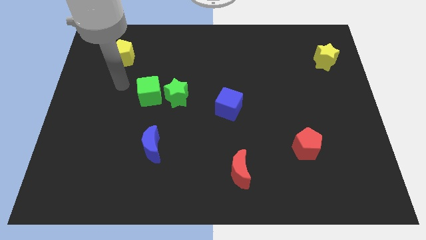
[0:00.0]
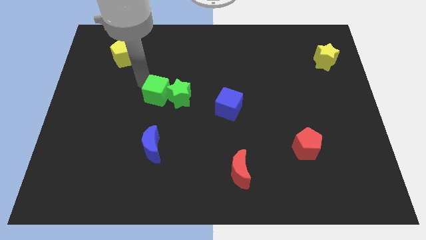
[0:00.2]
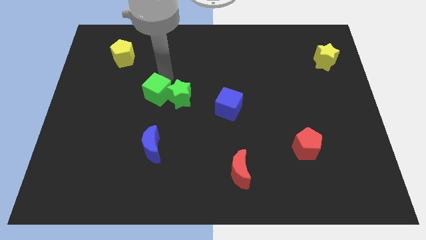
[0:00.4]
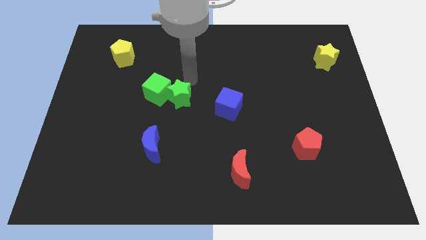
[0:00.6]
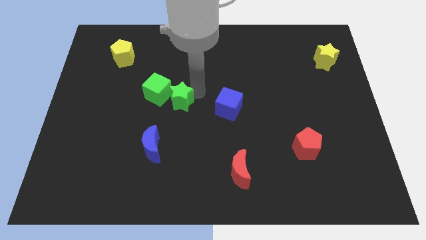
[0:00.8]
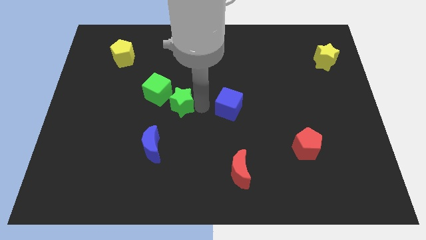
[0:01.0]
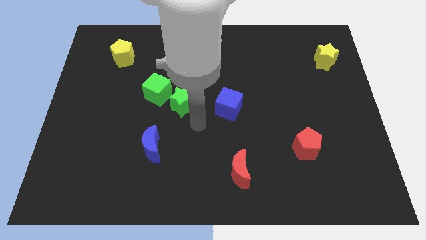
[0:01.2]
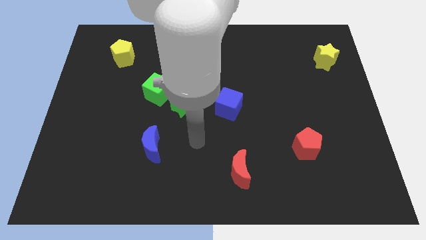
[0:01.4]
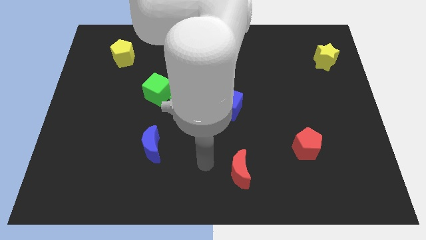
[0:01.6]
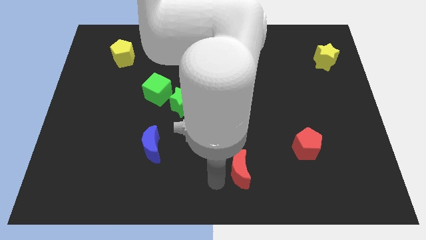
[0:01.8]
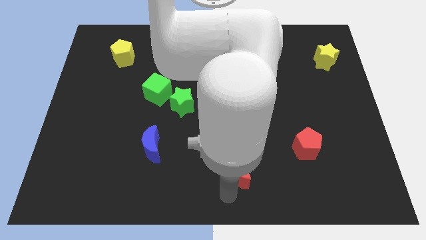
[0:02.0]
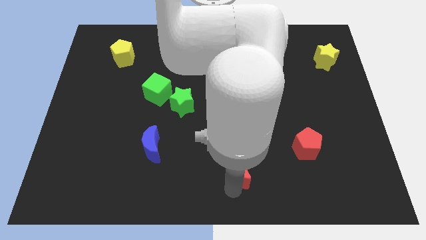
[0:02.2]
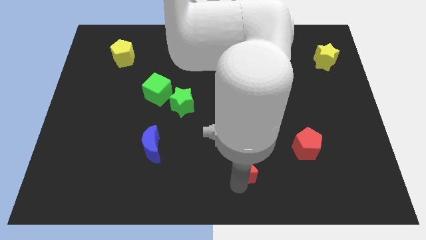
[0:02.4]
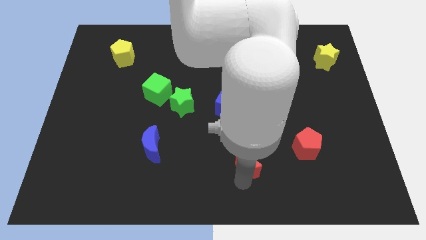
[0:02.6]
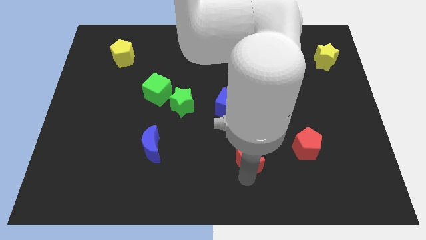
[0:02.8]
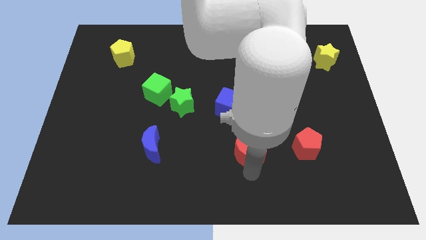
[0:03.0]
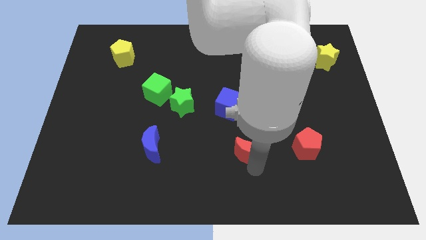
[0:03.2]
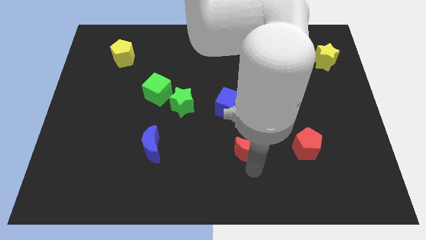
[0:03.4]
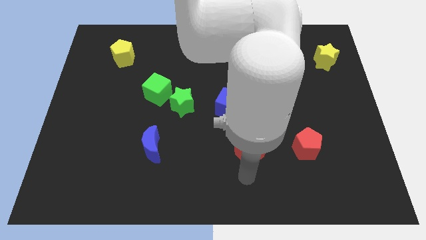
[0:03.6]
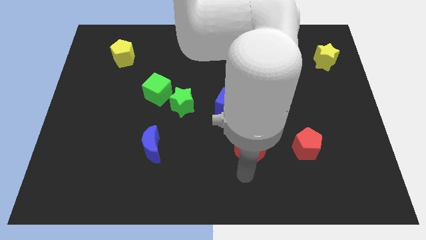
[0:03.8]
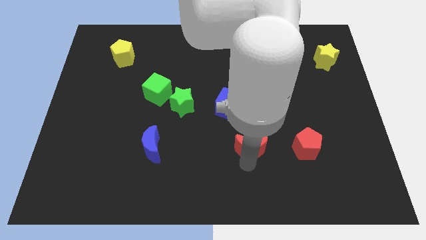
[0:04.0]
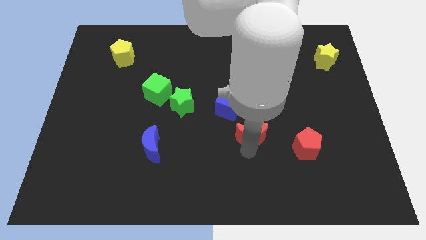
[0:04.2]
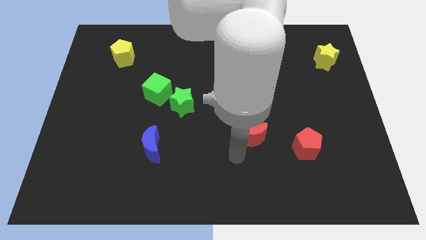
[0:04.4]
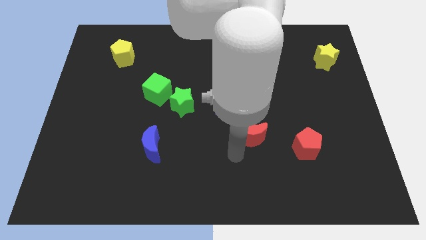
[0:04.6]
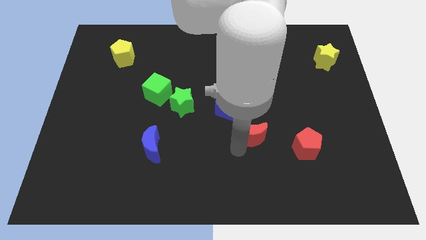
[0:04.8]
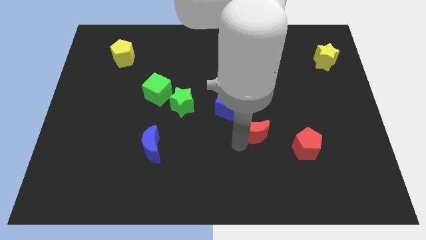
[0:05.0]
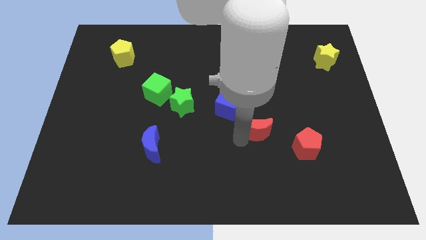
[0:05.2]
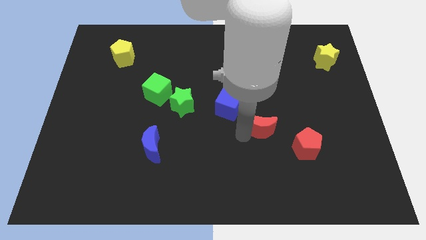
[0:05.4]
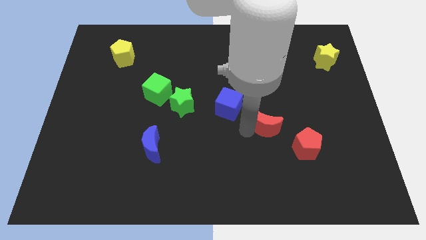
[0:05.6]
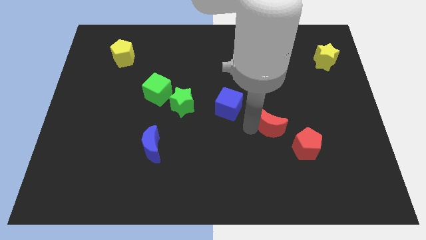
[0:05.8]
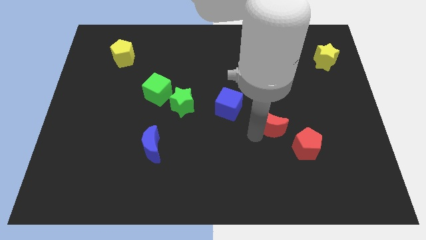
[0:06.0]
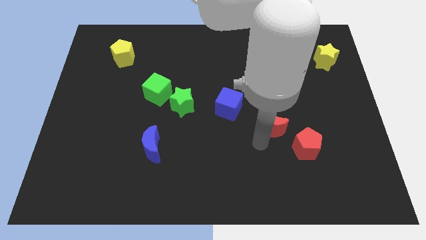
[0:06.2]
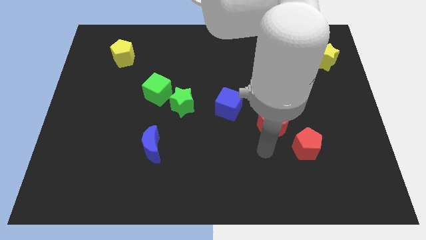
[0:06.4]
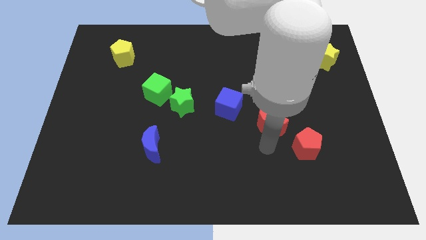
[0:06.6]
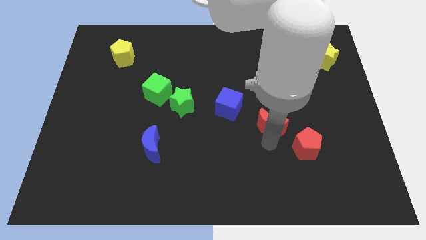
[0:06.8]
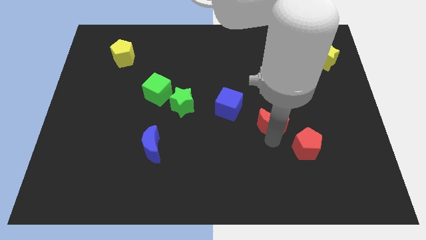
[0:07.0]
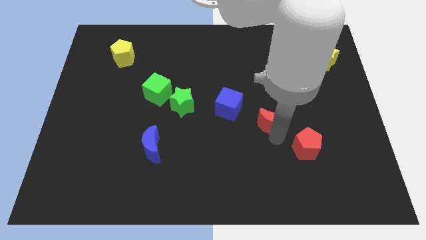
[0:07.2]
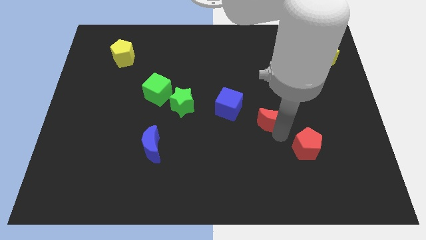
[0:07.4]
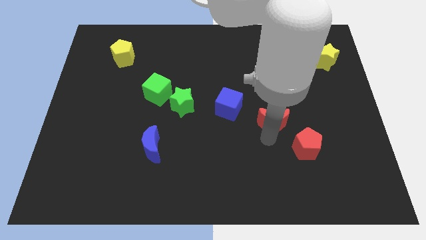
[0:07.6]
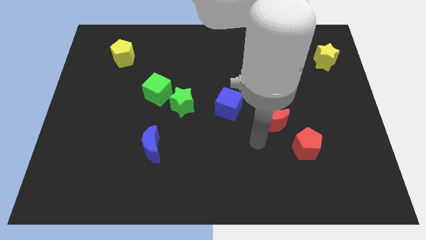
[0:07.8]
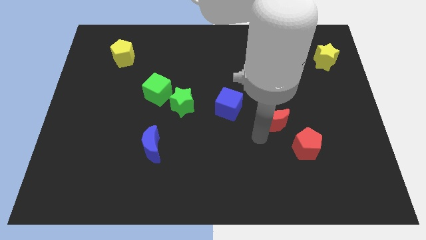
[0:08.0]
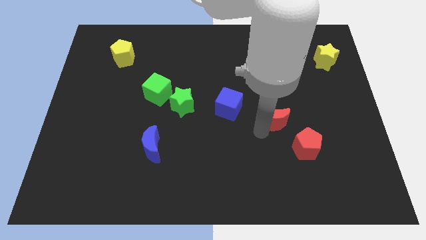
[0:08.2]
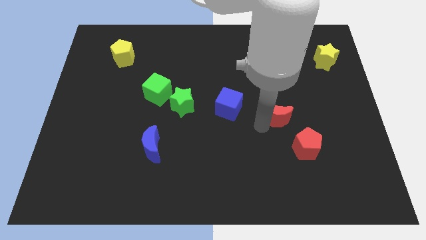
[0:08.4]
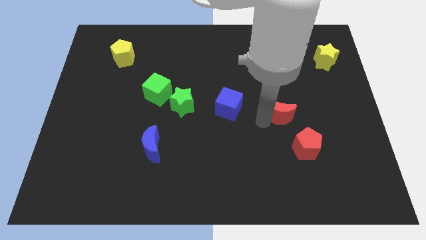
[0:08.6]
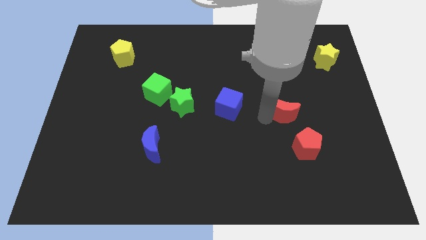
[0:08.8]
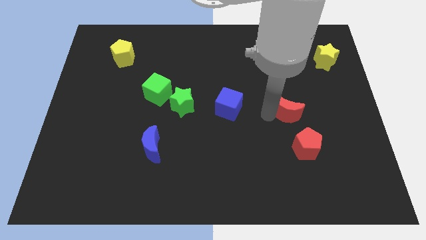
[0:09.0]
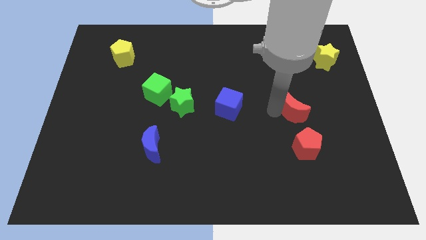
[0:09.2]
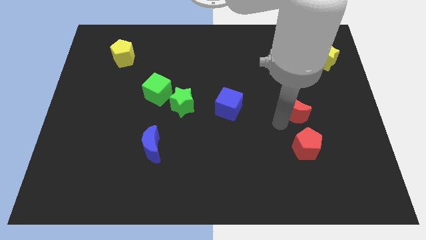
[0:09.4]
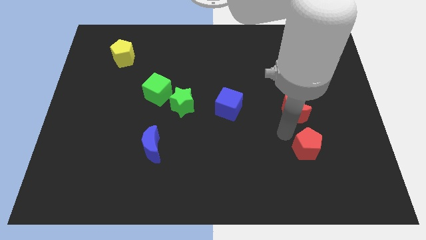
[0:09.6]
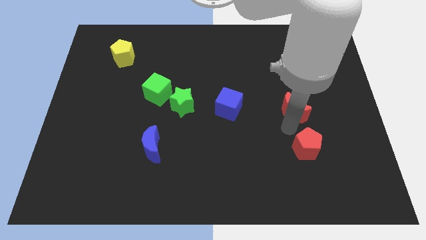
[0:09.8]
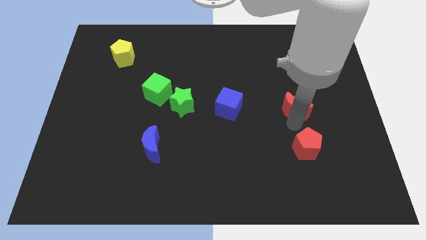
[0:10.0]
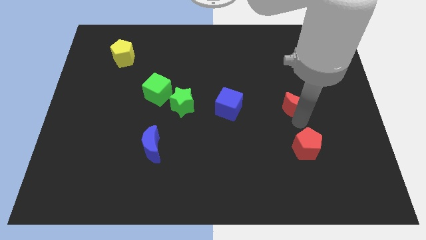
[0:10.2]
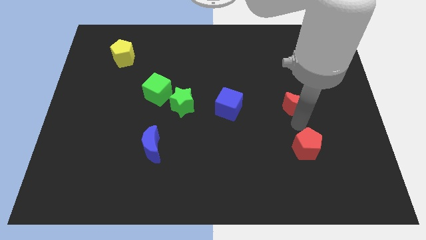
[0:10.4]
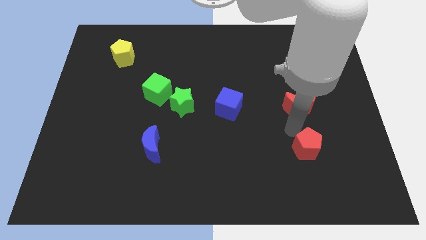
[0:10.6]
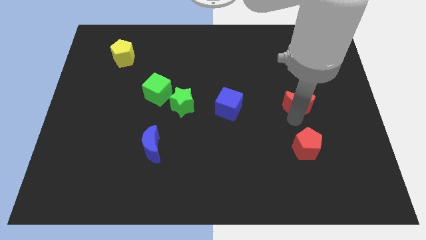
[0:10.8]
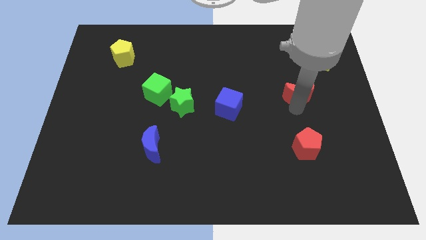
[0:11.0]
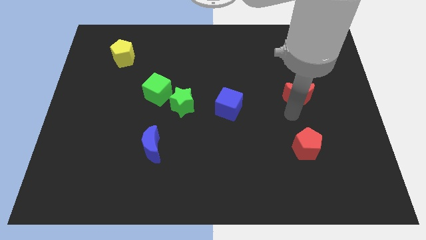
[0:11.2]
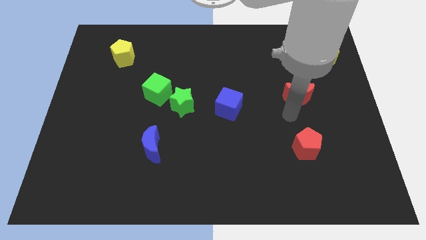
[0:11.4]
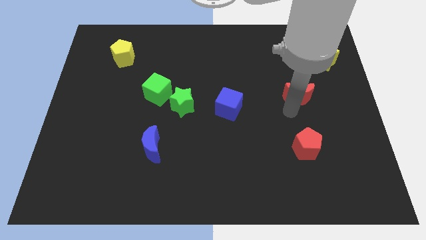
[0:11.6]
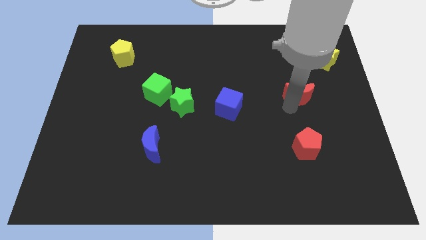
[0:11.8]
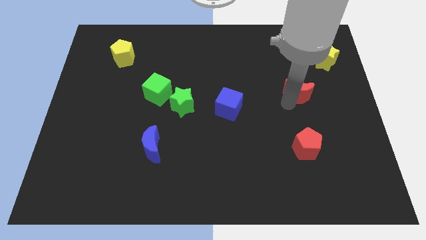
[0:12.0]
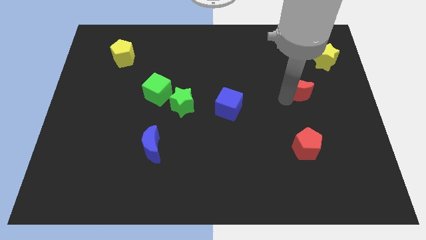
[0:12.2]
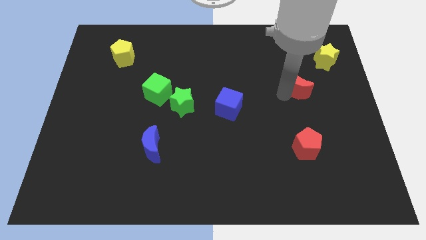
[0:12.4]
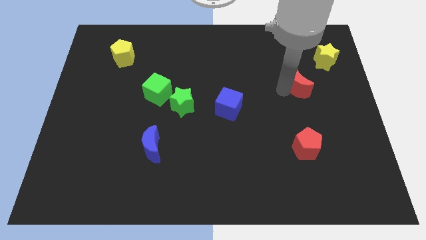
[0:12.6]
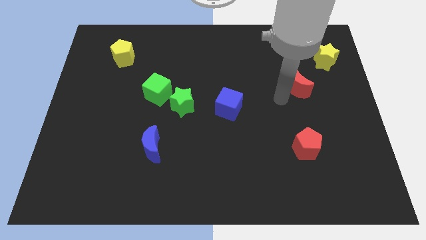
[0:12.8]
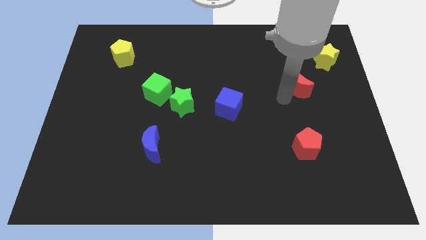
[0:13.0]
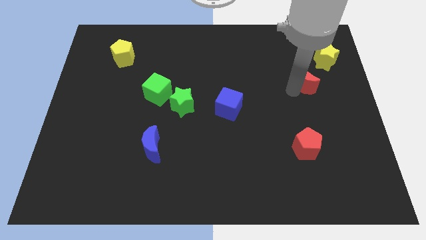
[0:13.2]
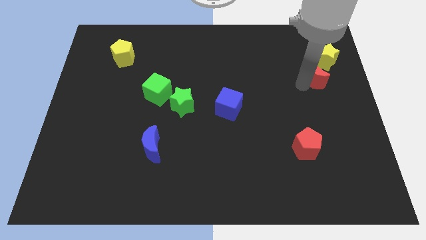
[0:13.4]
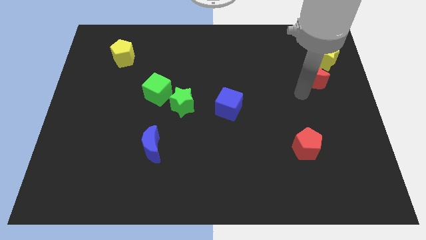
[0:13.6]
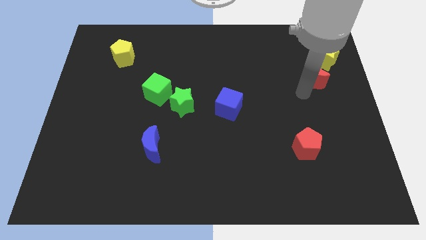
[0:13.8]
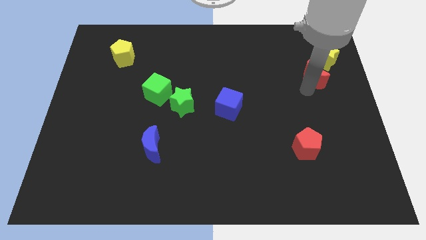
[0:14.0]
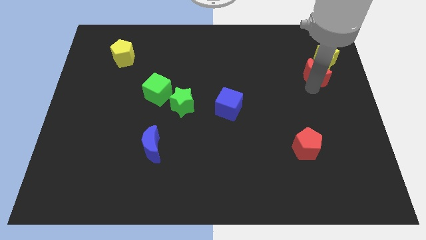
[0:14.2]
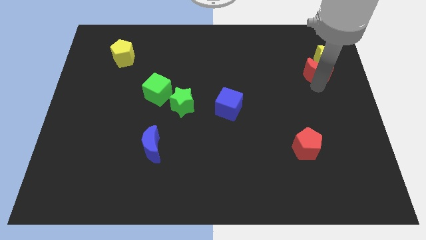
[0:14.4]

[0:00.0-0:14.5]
move the red moon to the yellow star
